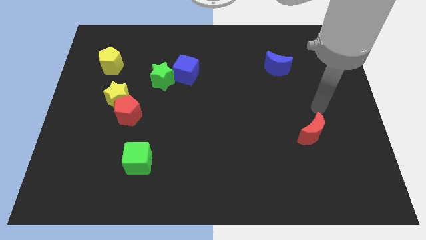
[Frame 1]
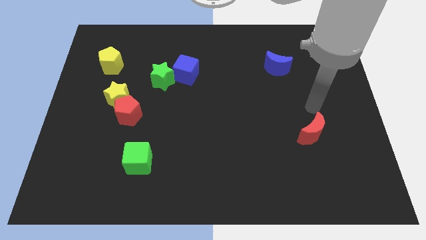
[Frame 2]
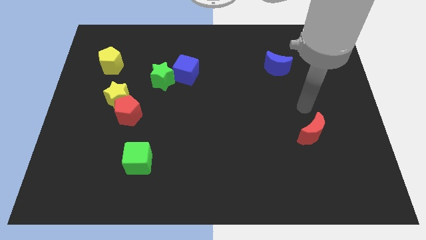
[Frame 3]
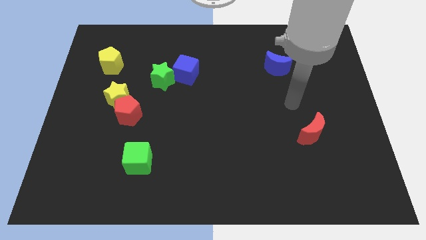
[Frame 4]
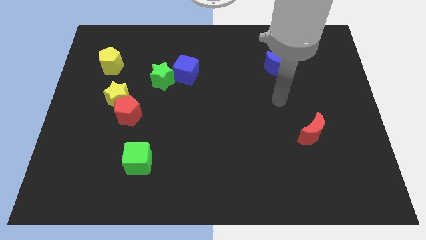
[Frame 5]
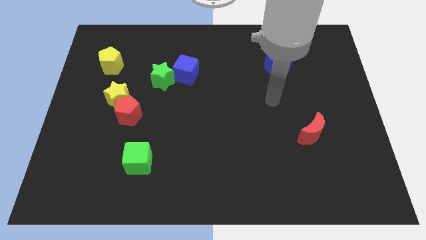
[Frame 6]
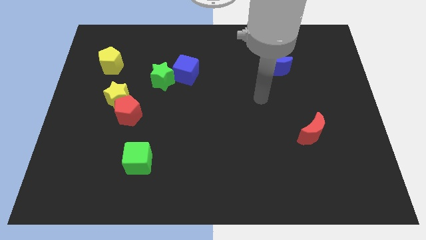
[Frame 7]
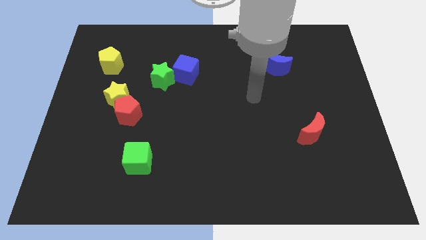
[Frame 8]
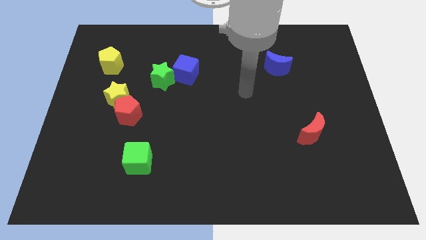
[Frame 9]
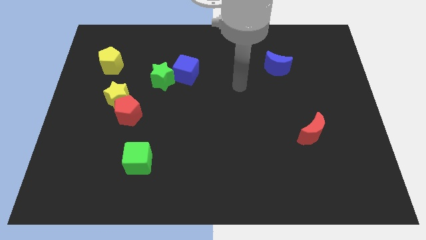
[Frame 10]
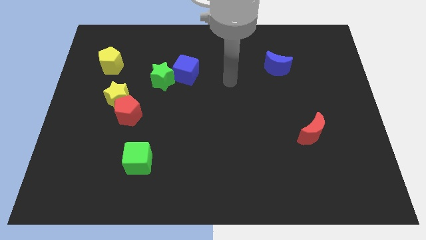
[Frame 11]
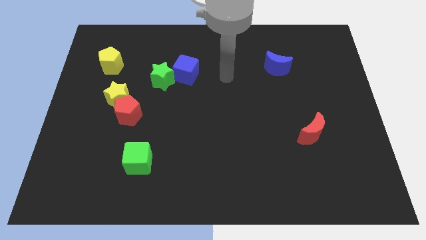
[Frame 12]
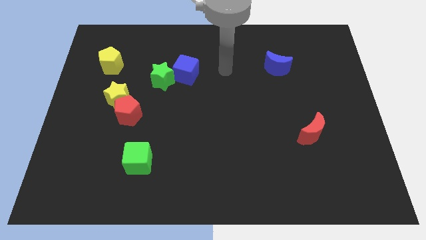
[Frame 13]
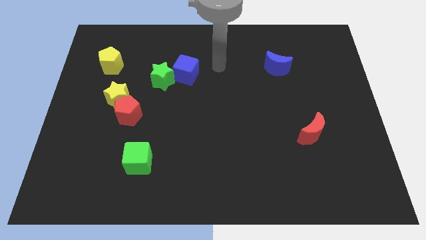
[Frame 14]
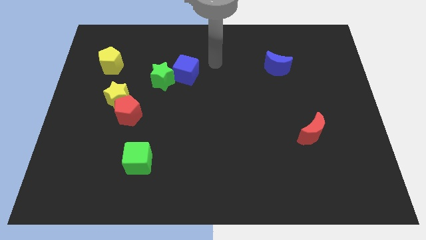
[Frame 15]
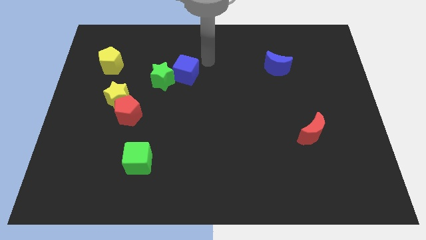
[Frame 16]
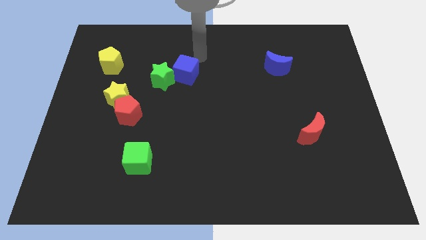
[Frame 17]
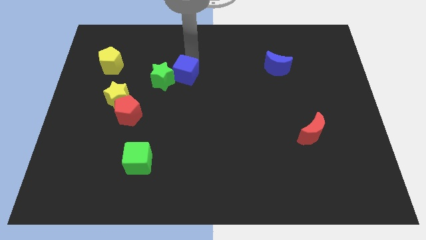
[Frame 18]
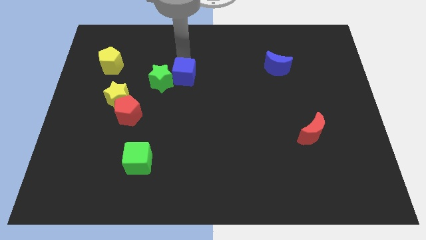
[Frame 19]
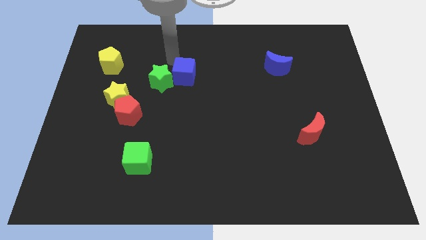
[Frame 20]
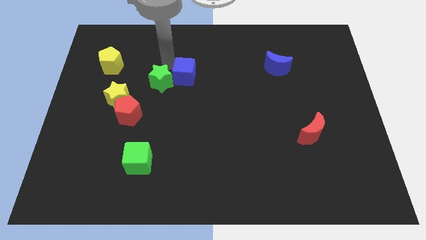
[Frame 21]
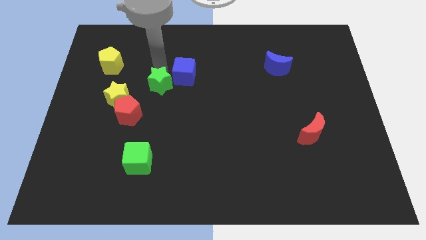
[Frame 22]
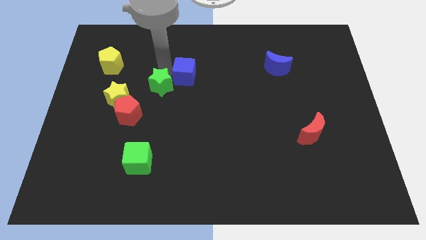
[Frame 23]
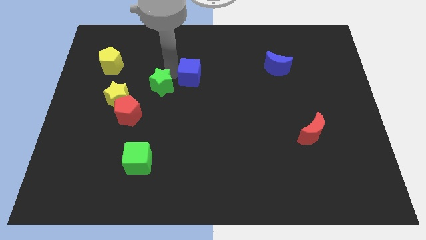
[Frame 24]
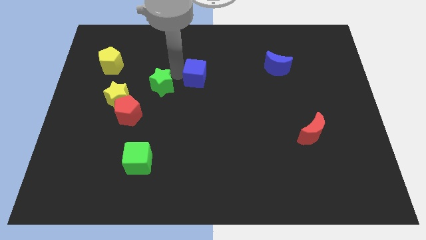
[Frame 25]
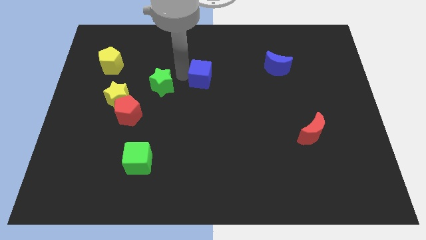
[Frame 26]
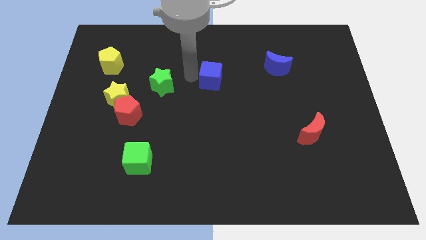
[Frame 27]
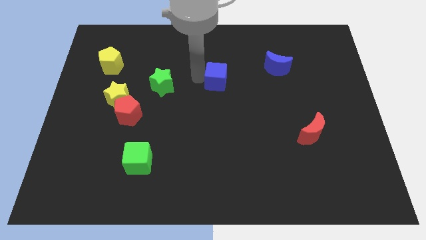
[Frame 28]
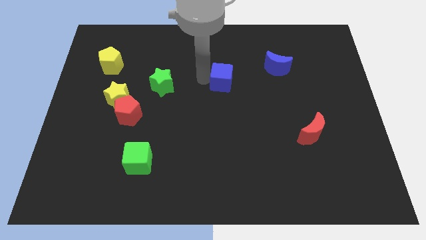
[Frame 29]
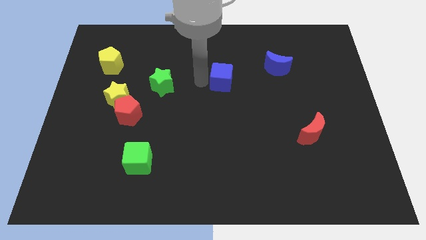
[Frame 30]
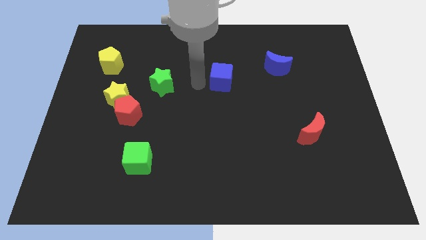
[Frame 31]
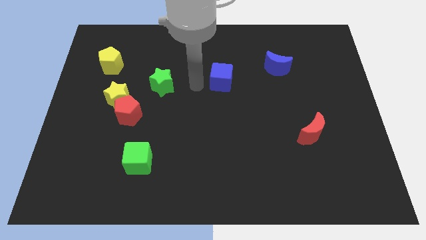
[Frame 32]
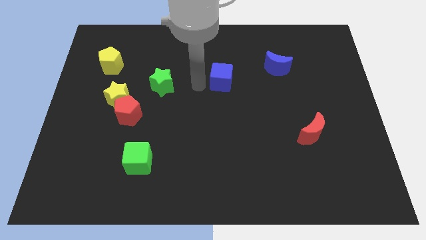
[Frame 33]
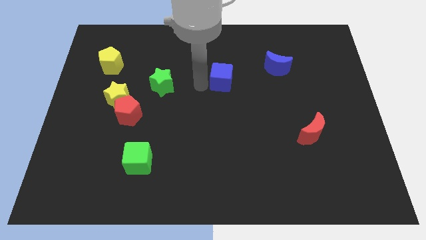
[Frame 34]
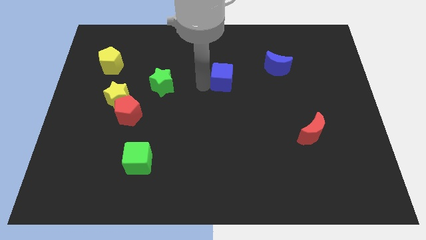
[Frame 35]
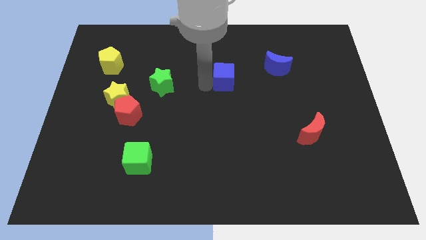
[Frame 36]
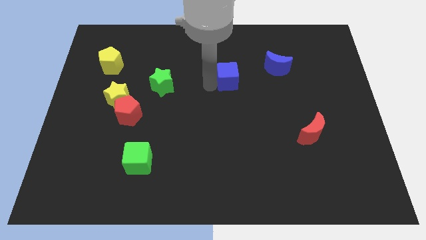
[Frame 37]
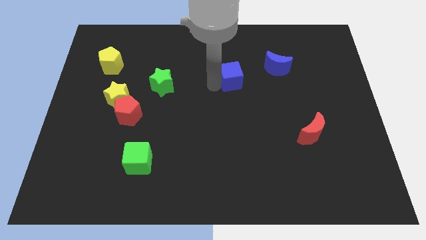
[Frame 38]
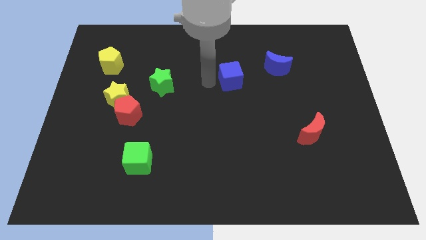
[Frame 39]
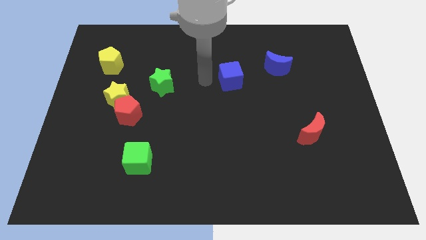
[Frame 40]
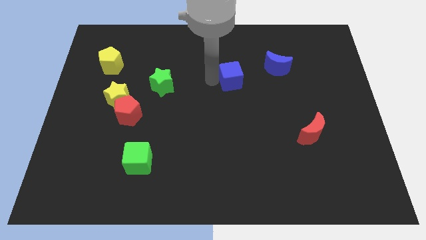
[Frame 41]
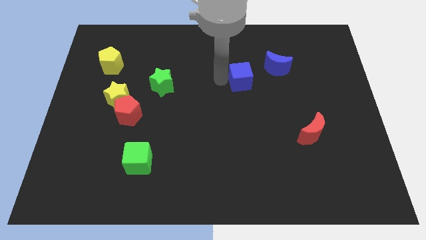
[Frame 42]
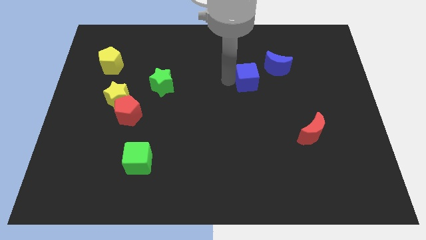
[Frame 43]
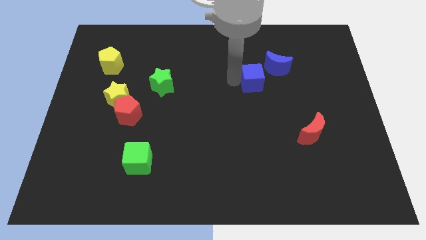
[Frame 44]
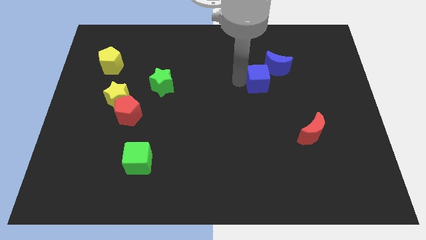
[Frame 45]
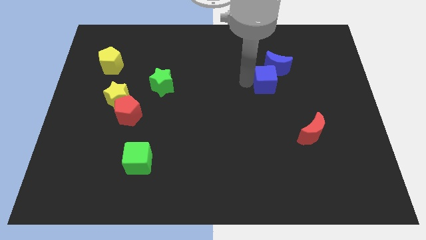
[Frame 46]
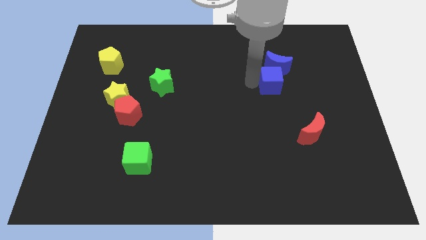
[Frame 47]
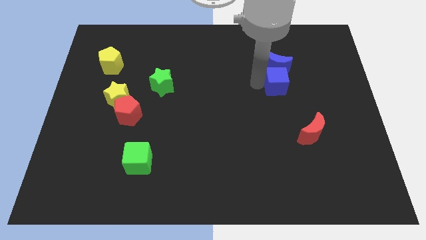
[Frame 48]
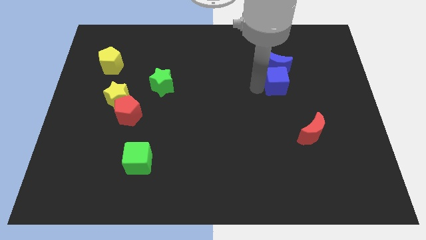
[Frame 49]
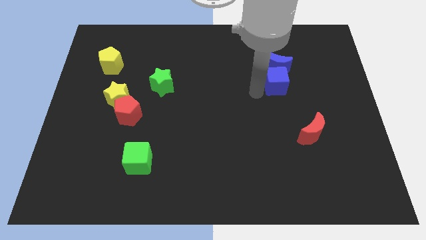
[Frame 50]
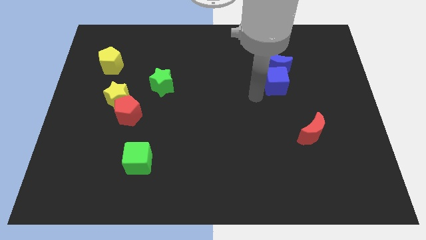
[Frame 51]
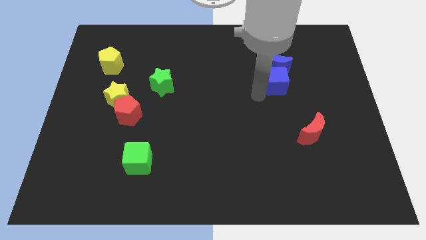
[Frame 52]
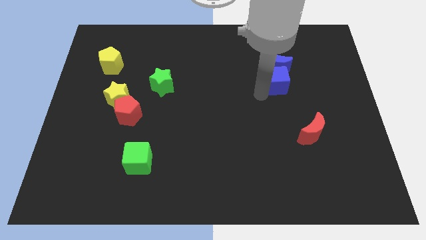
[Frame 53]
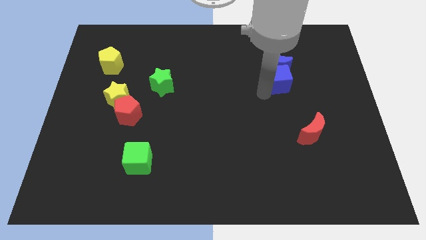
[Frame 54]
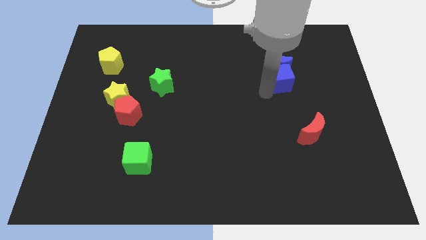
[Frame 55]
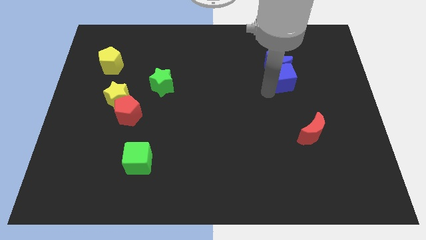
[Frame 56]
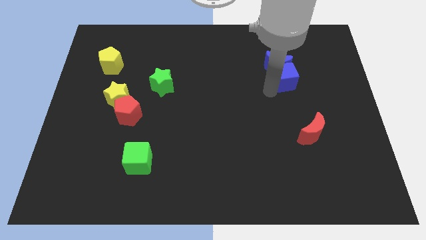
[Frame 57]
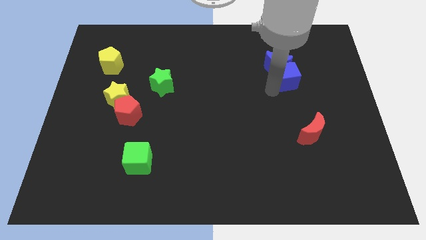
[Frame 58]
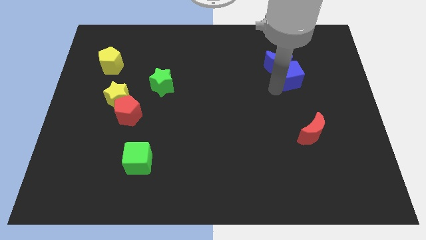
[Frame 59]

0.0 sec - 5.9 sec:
put the blue cube just right of the blue moon

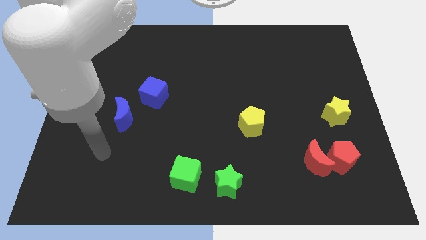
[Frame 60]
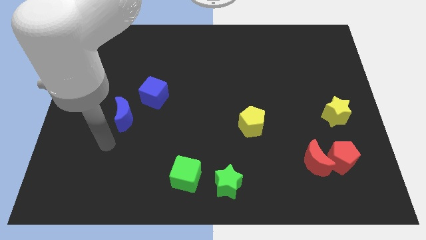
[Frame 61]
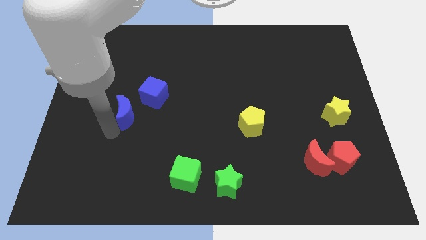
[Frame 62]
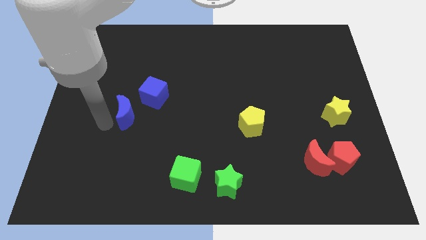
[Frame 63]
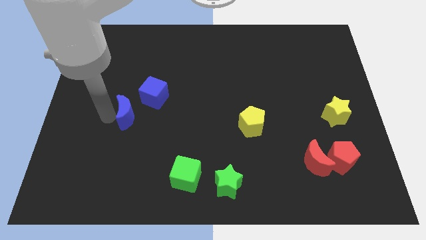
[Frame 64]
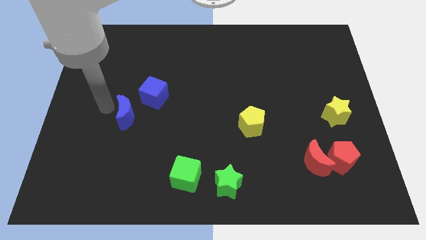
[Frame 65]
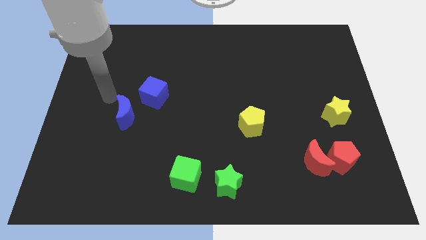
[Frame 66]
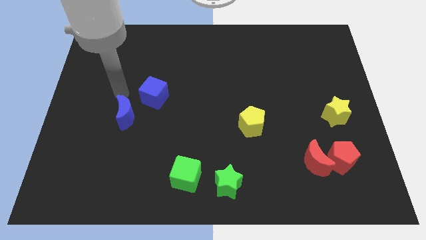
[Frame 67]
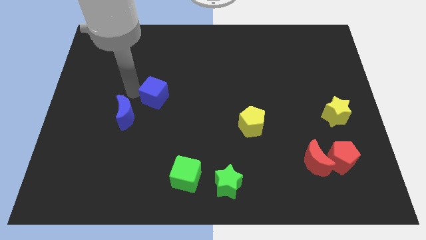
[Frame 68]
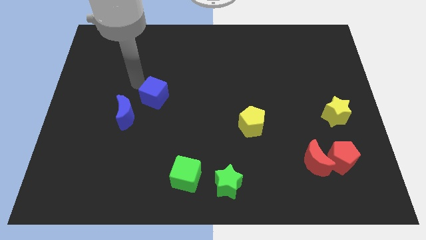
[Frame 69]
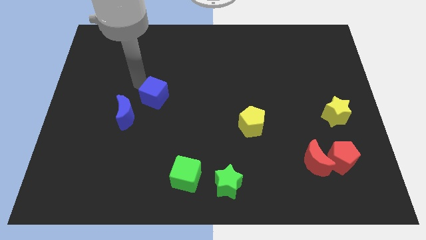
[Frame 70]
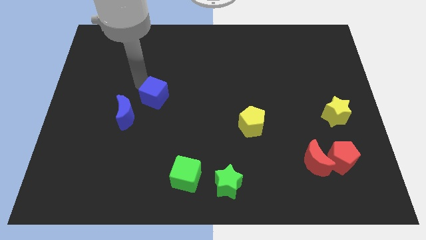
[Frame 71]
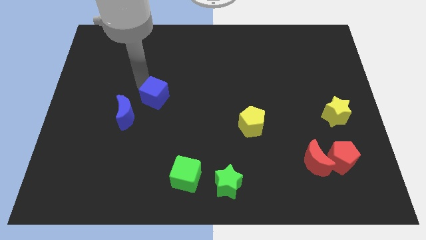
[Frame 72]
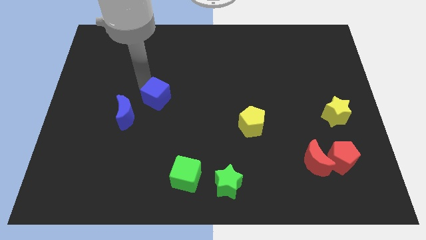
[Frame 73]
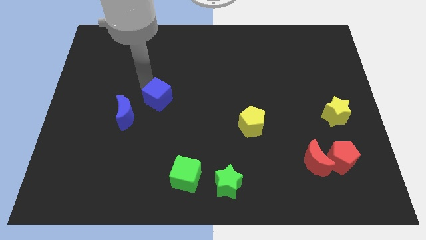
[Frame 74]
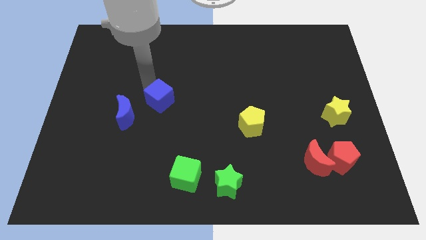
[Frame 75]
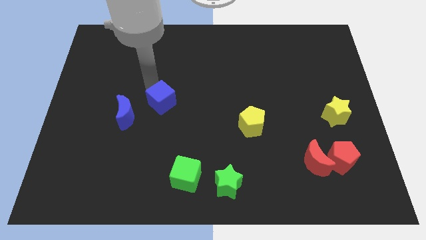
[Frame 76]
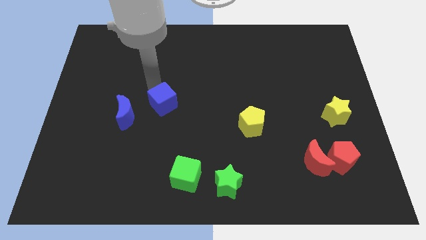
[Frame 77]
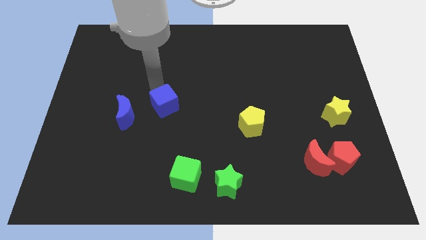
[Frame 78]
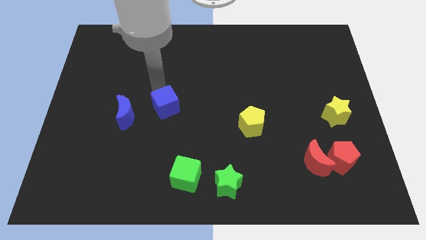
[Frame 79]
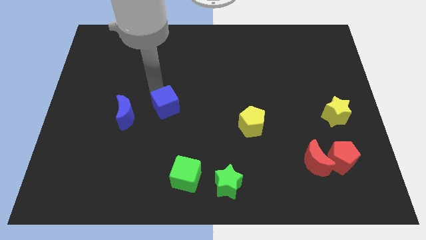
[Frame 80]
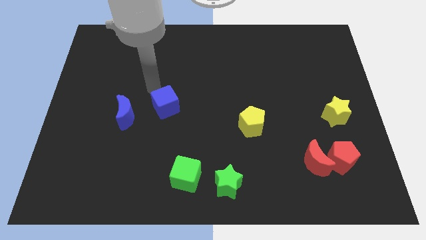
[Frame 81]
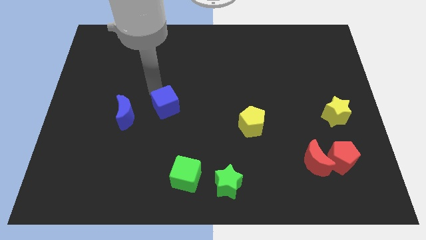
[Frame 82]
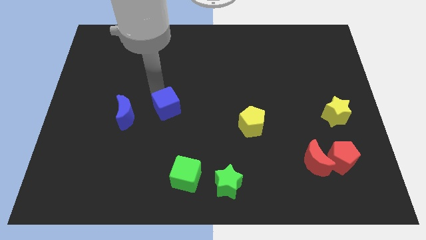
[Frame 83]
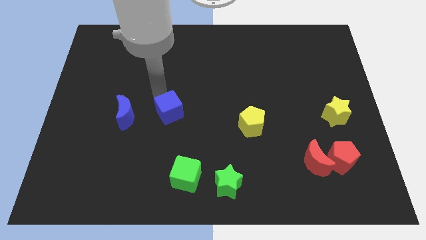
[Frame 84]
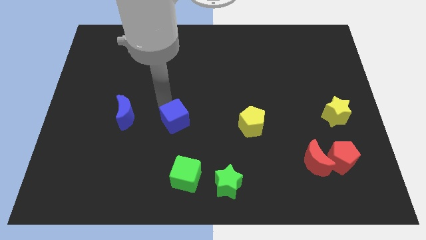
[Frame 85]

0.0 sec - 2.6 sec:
put the blue cube to the top of the green cube

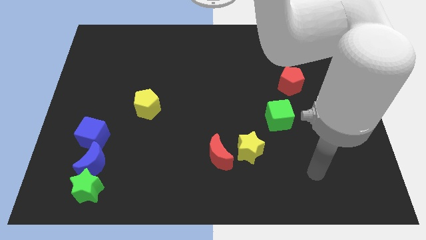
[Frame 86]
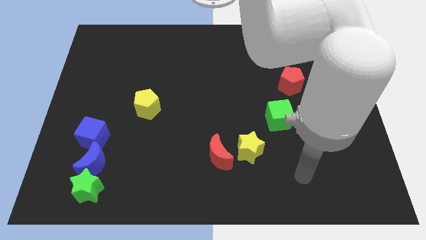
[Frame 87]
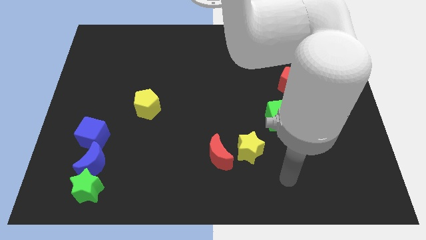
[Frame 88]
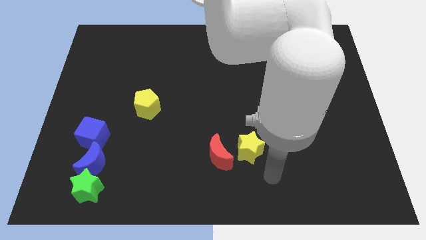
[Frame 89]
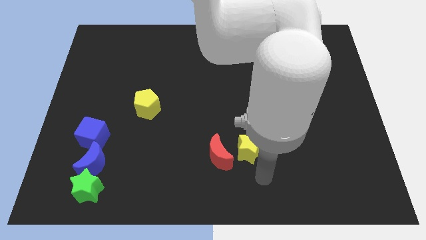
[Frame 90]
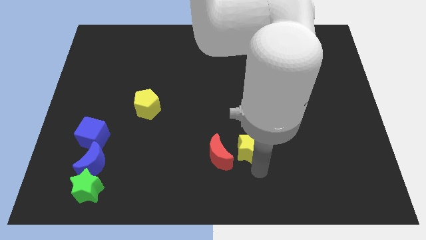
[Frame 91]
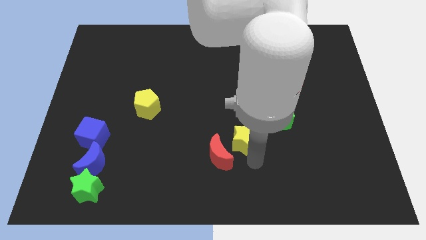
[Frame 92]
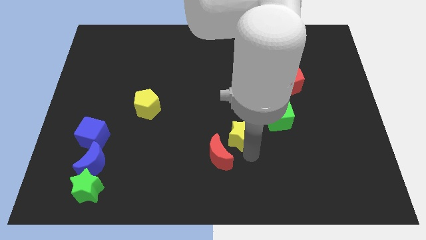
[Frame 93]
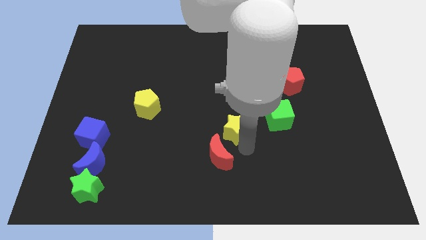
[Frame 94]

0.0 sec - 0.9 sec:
slide the yellow star left of the green cube
